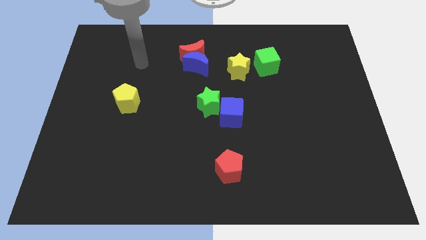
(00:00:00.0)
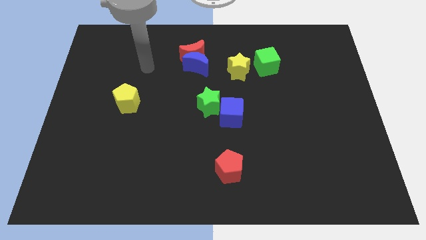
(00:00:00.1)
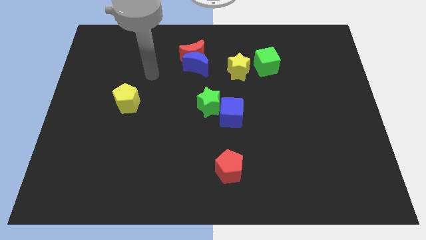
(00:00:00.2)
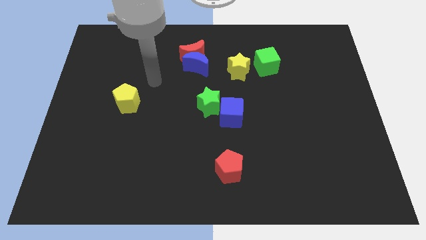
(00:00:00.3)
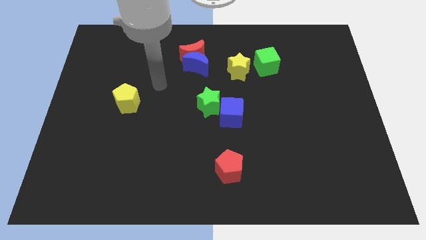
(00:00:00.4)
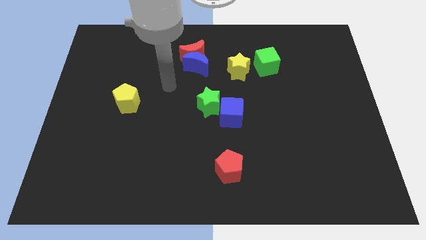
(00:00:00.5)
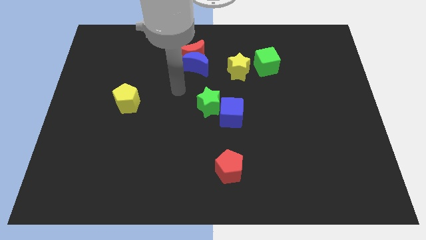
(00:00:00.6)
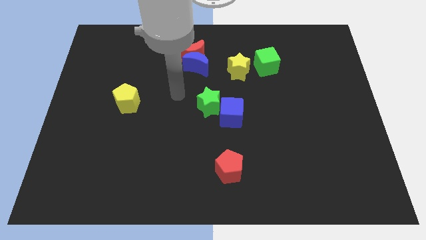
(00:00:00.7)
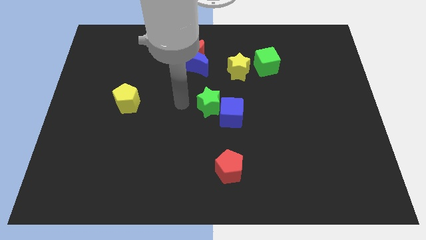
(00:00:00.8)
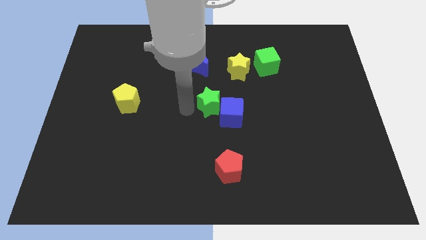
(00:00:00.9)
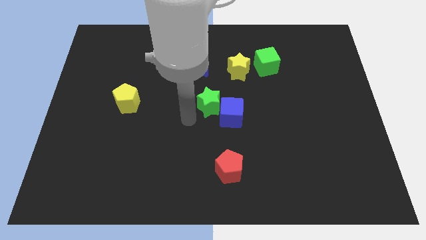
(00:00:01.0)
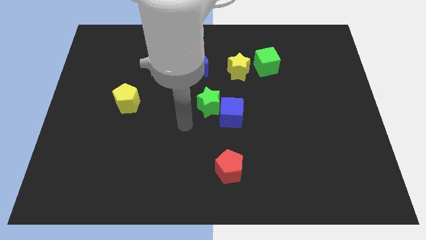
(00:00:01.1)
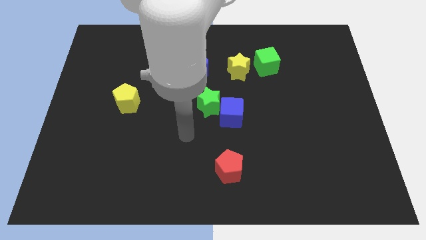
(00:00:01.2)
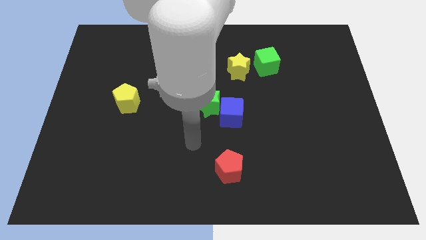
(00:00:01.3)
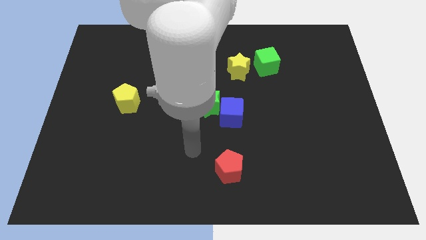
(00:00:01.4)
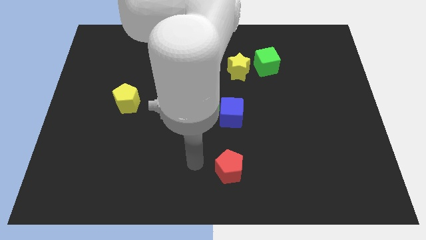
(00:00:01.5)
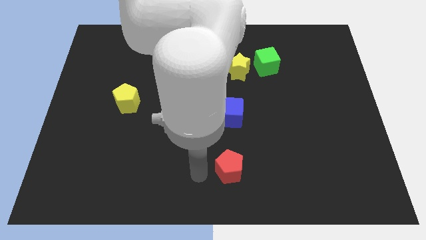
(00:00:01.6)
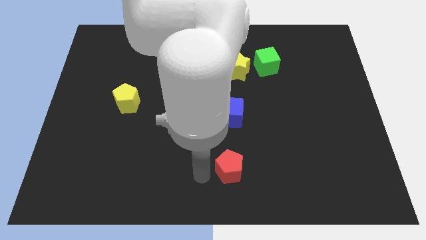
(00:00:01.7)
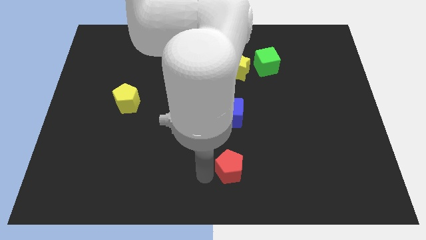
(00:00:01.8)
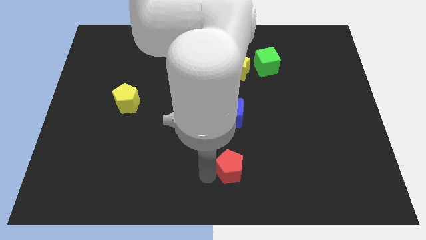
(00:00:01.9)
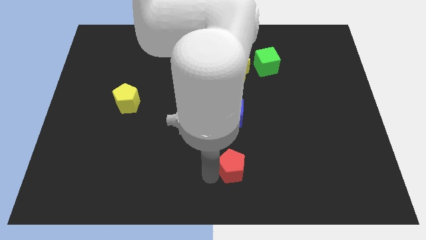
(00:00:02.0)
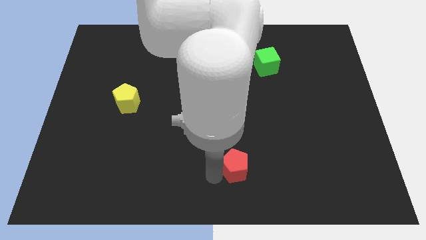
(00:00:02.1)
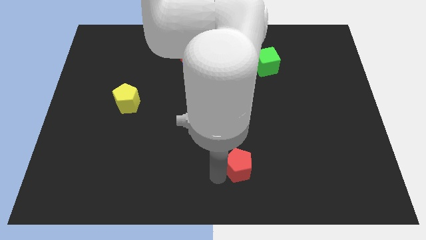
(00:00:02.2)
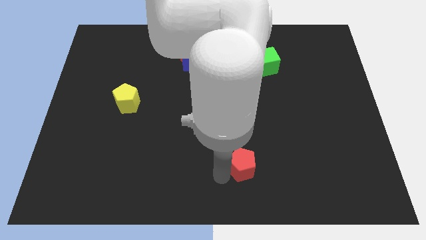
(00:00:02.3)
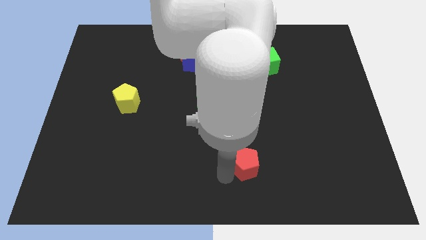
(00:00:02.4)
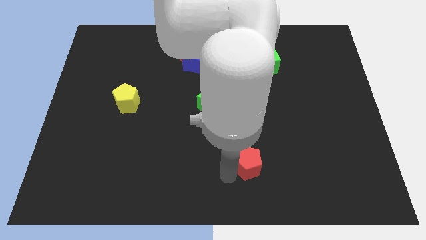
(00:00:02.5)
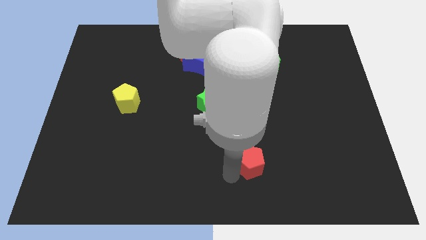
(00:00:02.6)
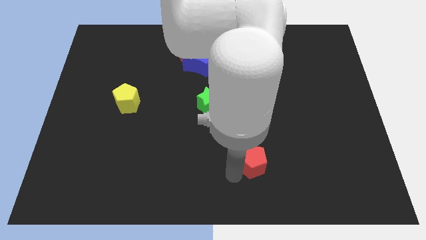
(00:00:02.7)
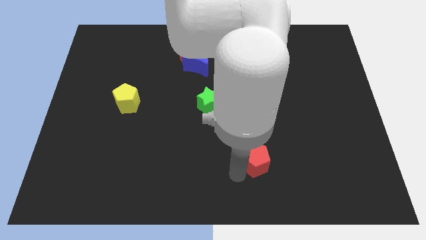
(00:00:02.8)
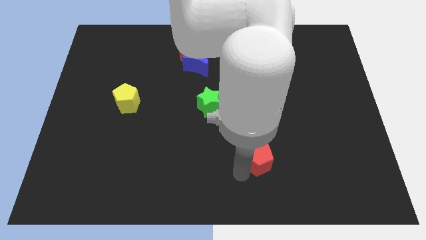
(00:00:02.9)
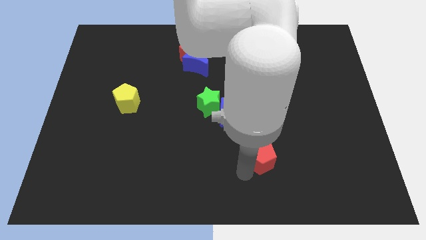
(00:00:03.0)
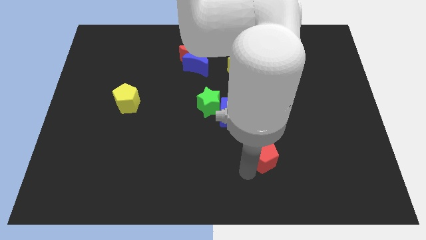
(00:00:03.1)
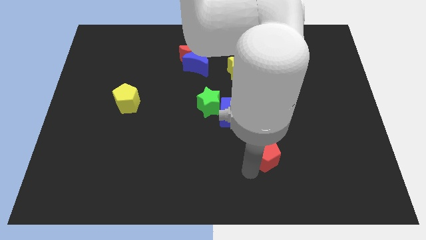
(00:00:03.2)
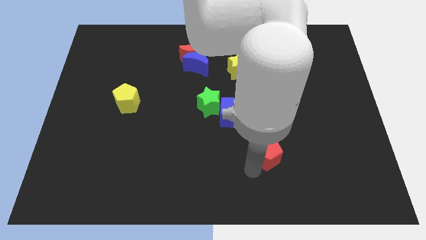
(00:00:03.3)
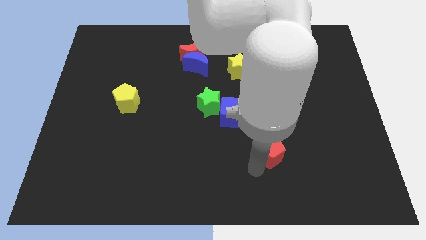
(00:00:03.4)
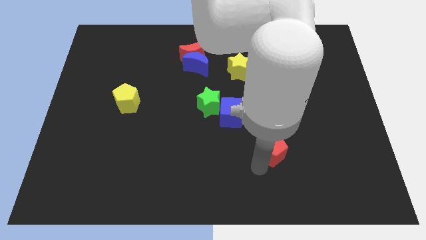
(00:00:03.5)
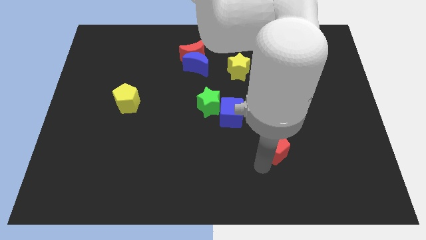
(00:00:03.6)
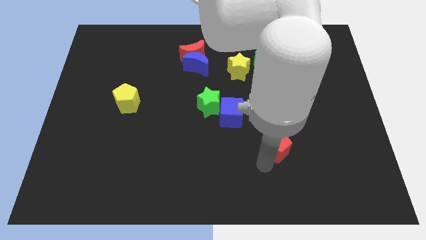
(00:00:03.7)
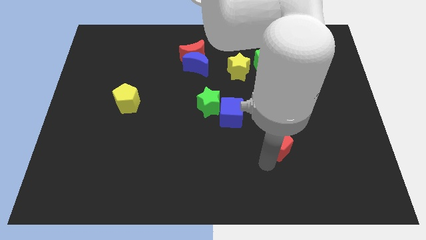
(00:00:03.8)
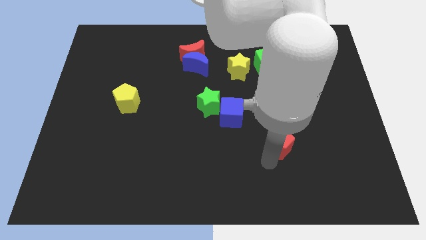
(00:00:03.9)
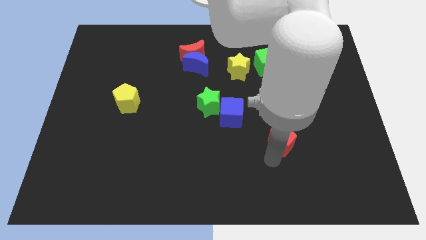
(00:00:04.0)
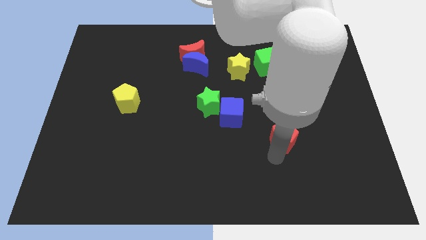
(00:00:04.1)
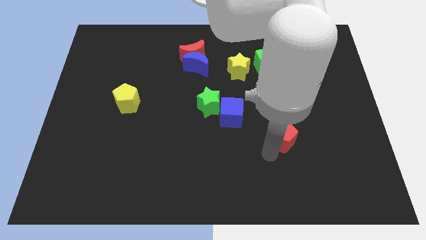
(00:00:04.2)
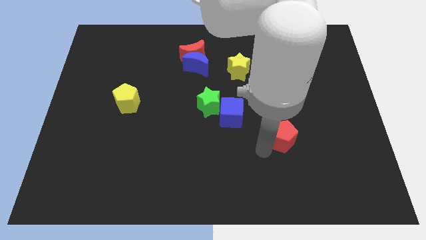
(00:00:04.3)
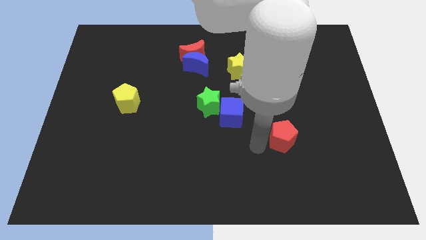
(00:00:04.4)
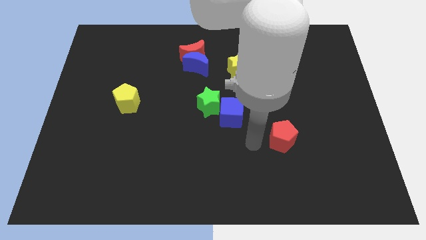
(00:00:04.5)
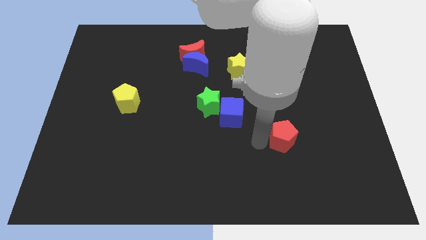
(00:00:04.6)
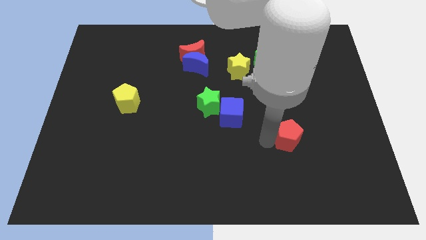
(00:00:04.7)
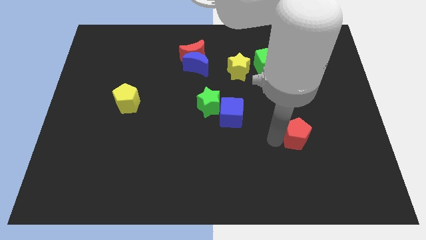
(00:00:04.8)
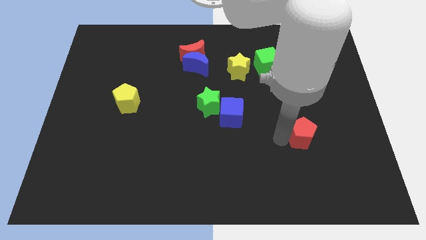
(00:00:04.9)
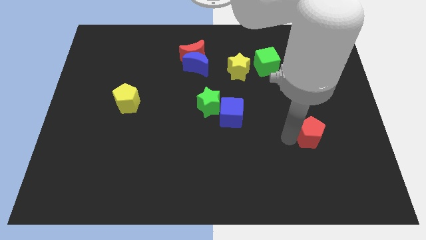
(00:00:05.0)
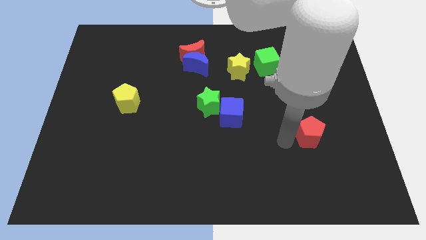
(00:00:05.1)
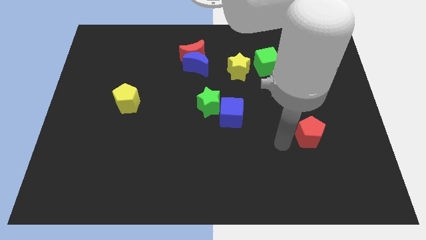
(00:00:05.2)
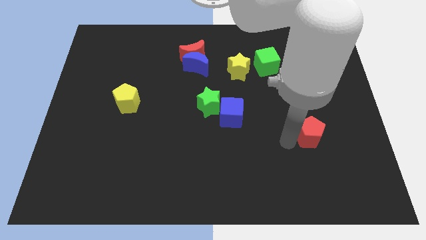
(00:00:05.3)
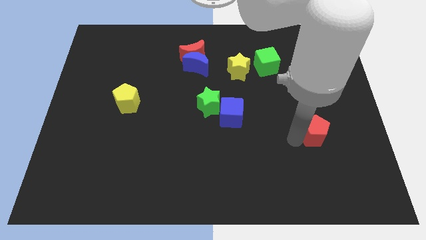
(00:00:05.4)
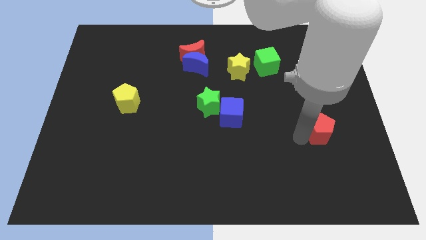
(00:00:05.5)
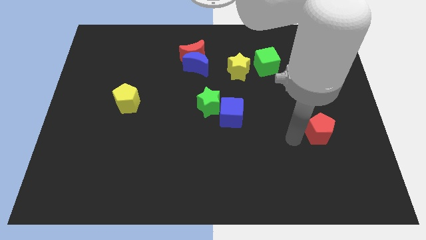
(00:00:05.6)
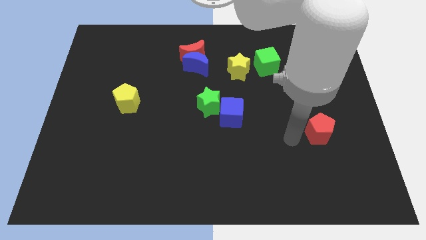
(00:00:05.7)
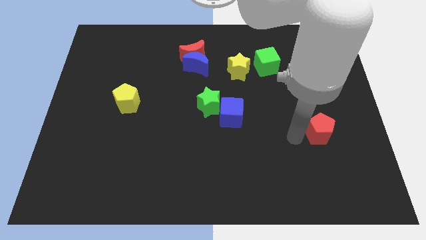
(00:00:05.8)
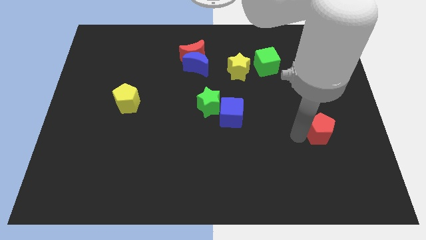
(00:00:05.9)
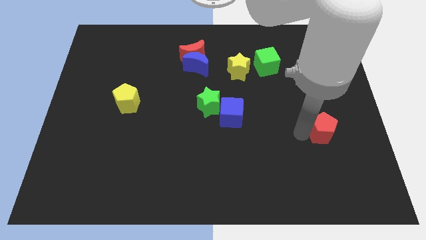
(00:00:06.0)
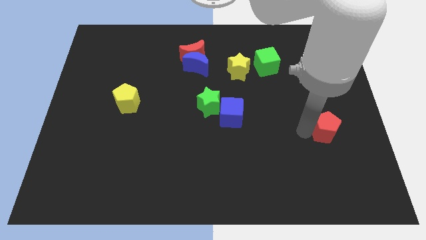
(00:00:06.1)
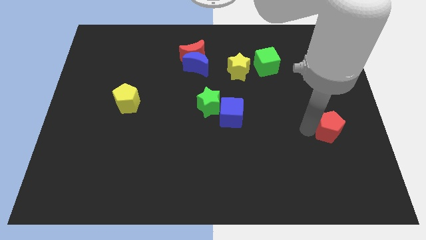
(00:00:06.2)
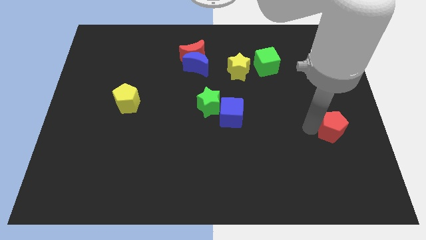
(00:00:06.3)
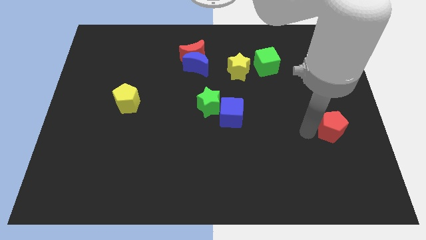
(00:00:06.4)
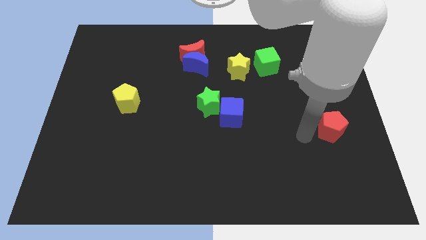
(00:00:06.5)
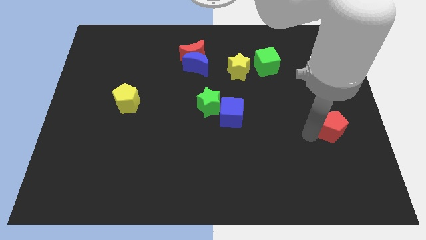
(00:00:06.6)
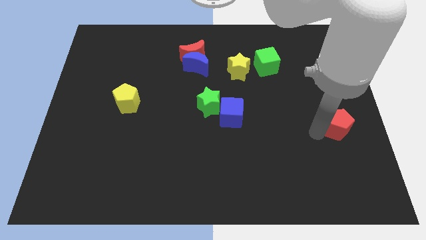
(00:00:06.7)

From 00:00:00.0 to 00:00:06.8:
put the red pentagon to the right side
